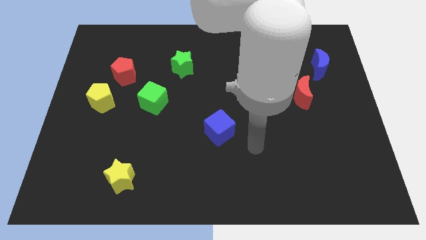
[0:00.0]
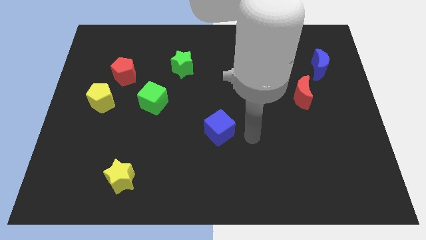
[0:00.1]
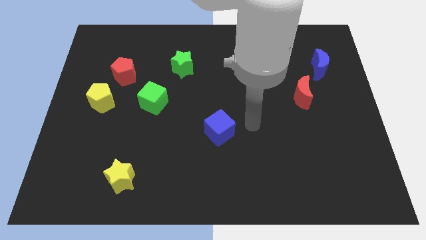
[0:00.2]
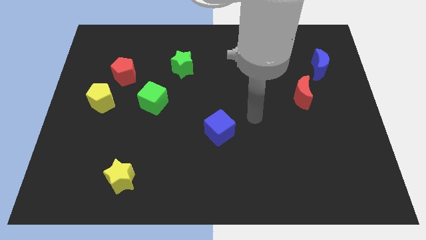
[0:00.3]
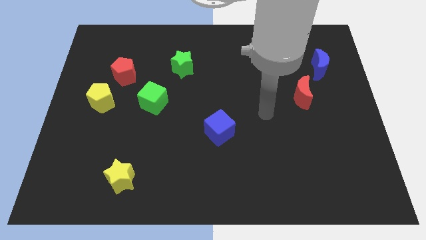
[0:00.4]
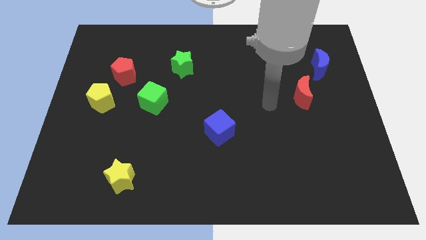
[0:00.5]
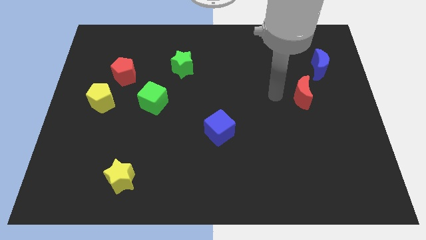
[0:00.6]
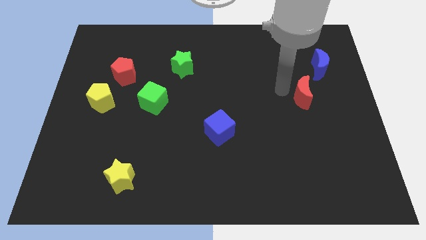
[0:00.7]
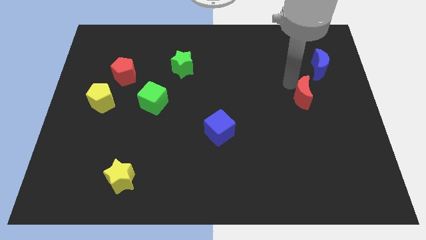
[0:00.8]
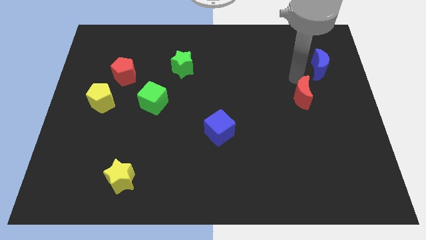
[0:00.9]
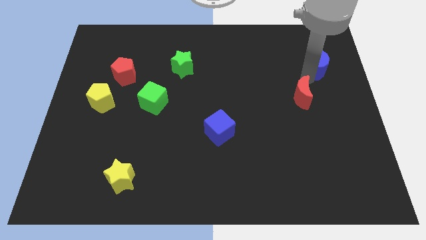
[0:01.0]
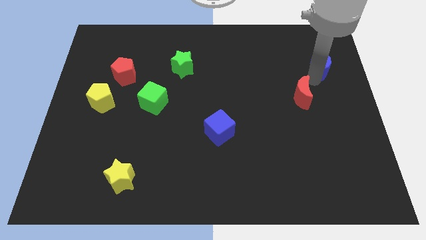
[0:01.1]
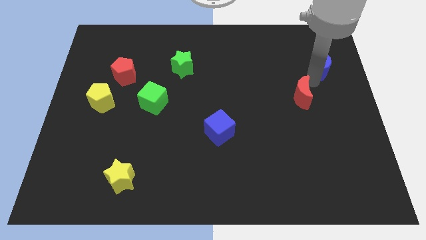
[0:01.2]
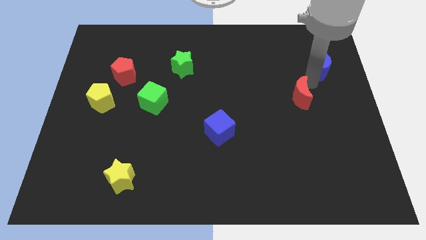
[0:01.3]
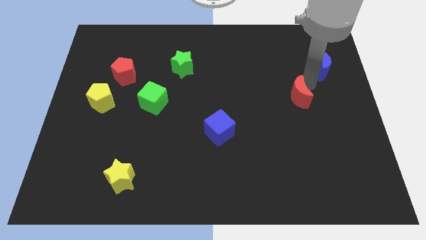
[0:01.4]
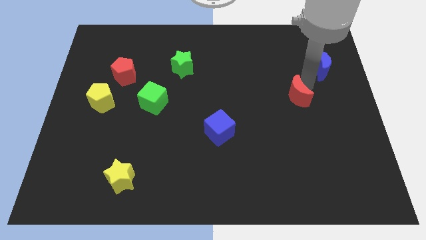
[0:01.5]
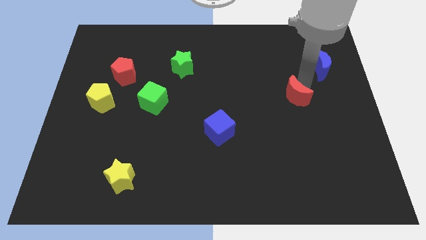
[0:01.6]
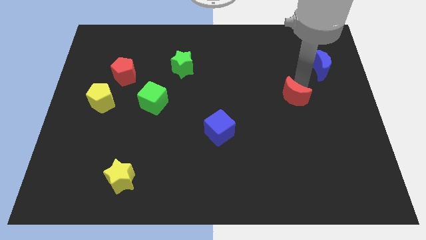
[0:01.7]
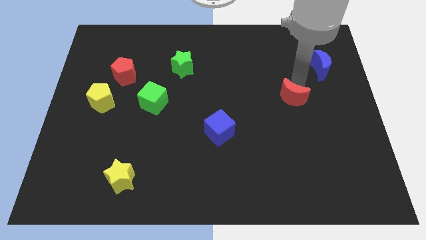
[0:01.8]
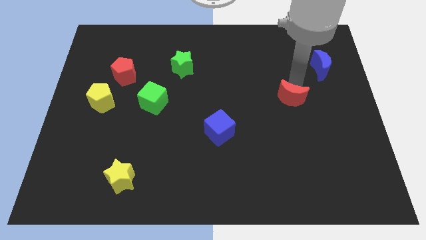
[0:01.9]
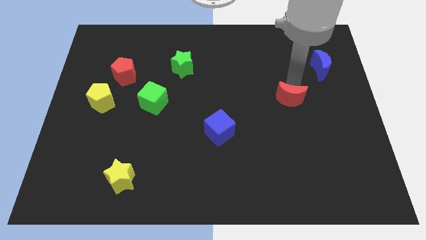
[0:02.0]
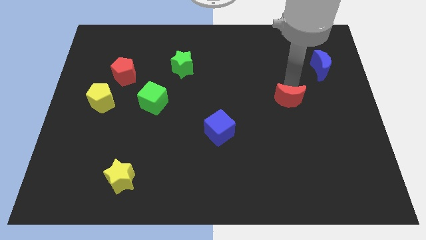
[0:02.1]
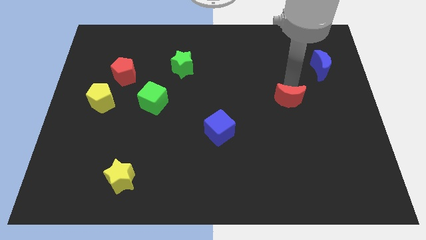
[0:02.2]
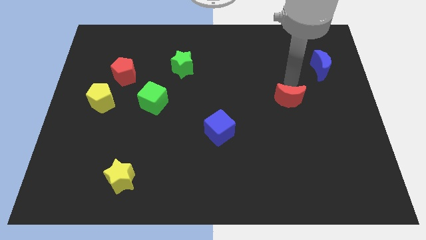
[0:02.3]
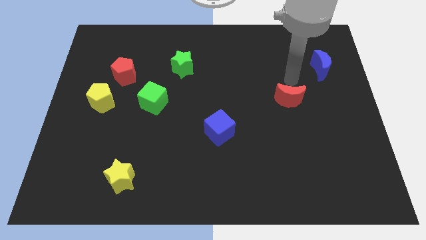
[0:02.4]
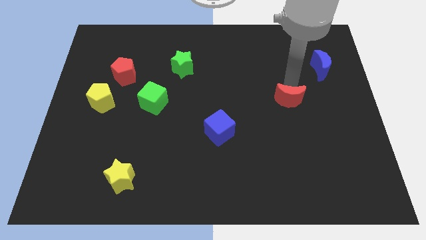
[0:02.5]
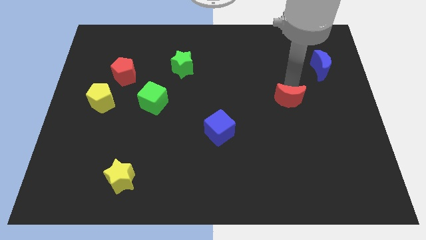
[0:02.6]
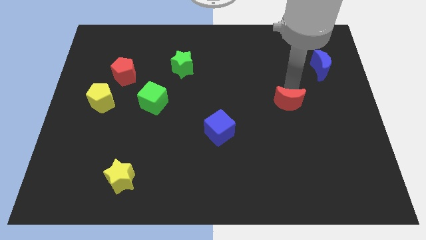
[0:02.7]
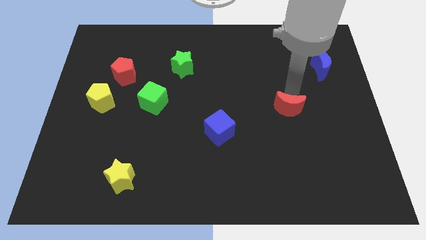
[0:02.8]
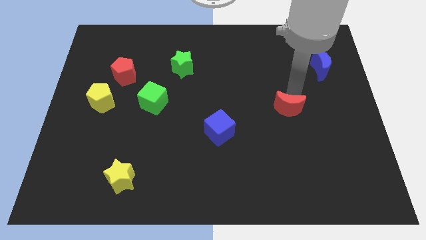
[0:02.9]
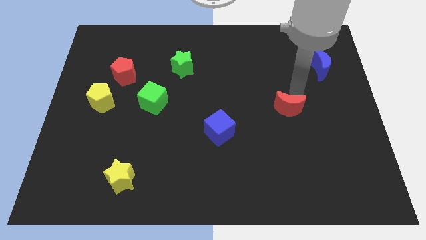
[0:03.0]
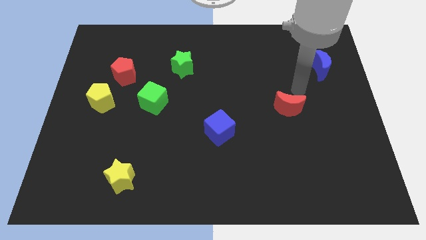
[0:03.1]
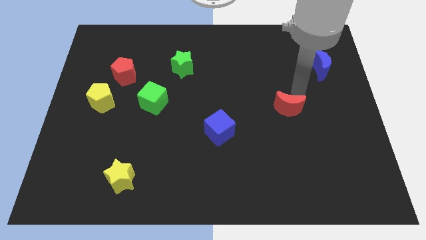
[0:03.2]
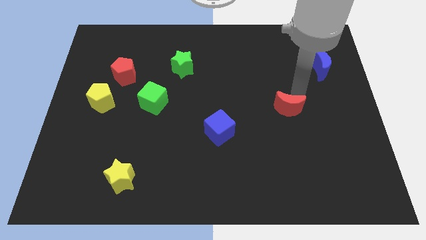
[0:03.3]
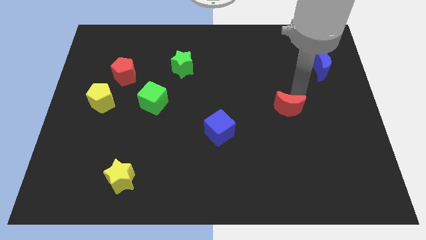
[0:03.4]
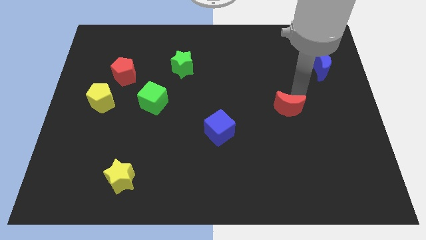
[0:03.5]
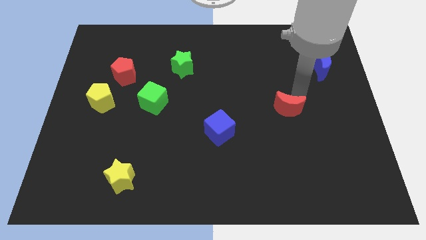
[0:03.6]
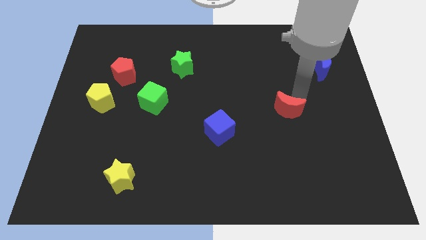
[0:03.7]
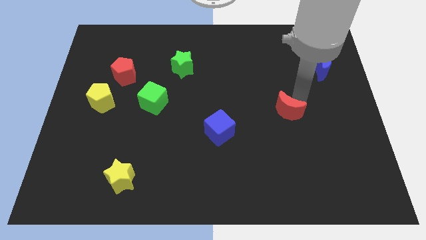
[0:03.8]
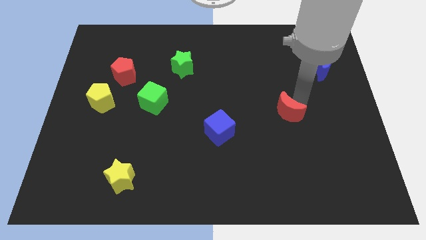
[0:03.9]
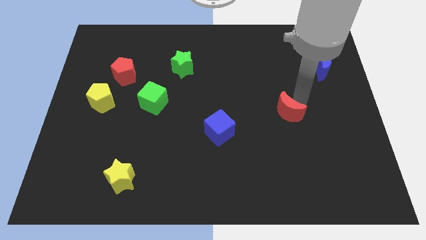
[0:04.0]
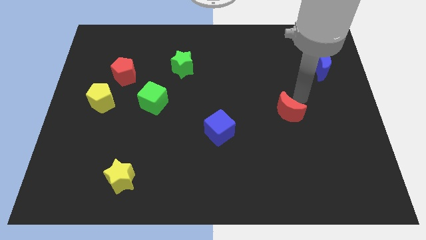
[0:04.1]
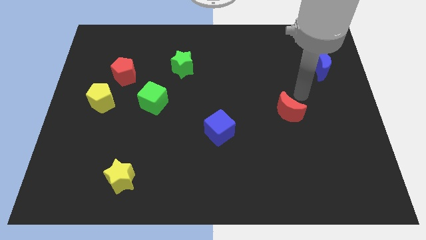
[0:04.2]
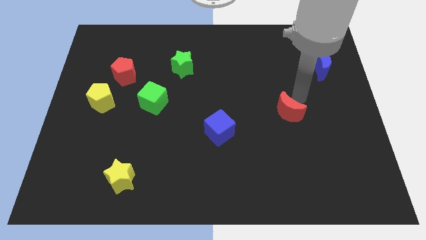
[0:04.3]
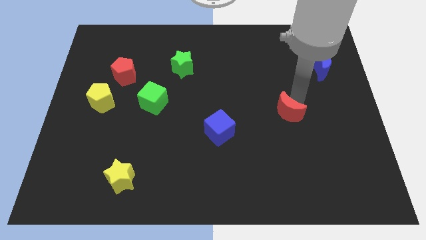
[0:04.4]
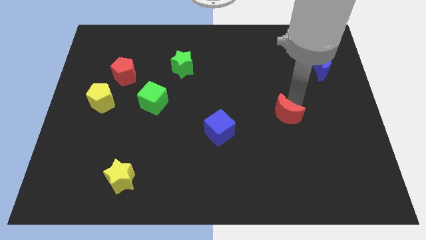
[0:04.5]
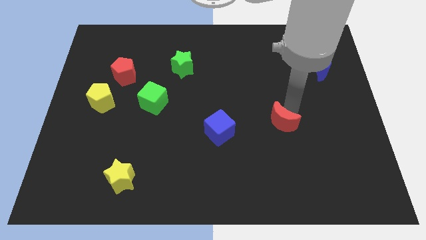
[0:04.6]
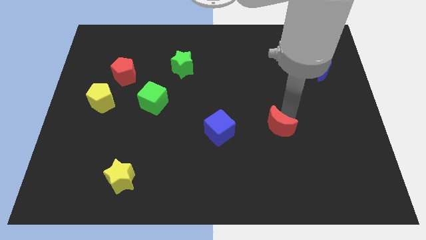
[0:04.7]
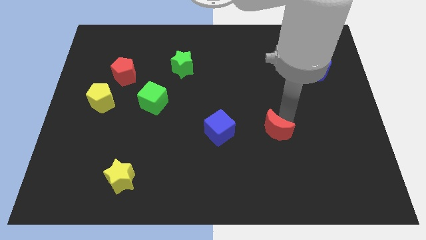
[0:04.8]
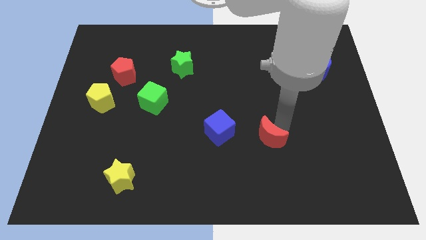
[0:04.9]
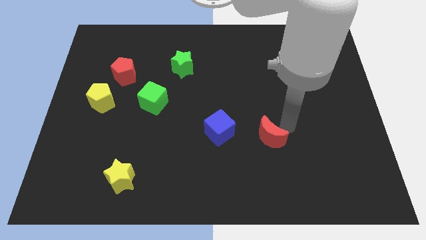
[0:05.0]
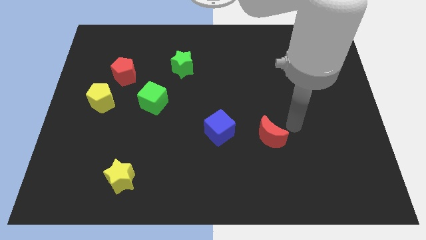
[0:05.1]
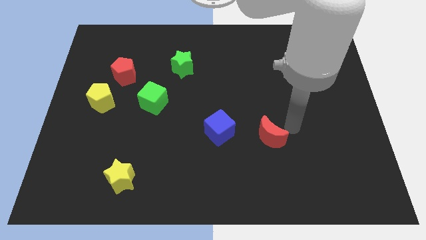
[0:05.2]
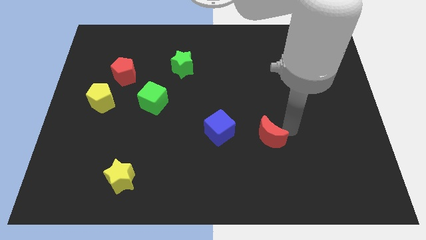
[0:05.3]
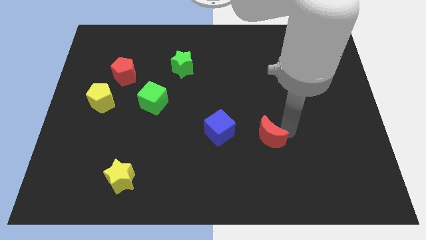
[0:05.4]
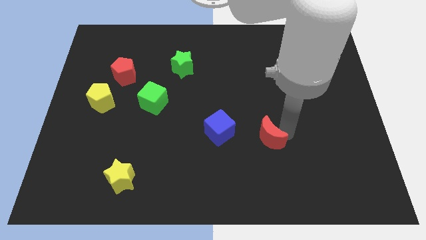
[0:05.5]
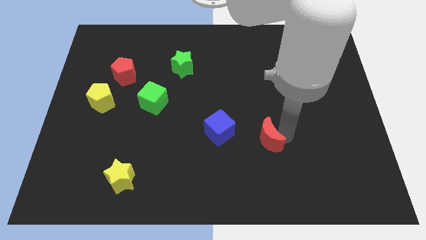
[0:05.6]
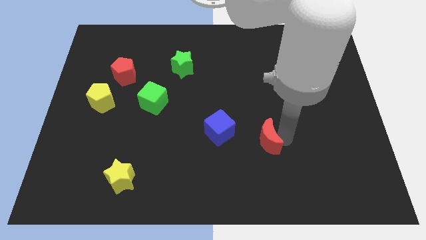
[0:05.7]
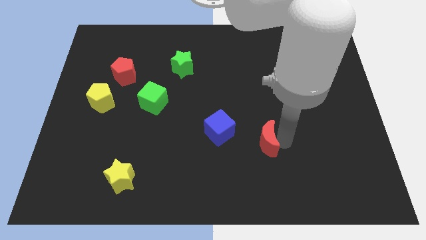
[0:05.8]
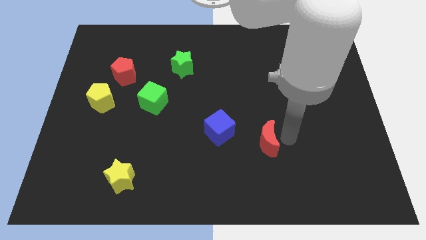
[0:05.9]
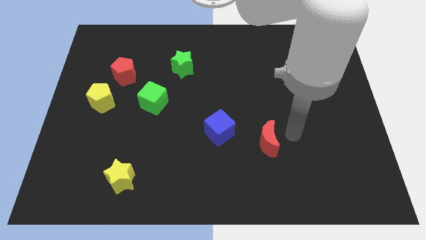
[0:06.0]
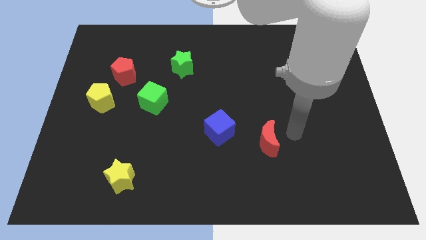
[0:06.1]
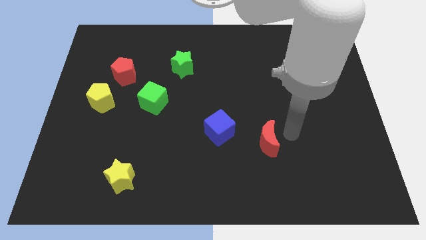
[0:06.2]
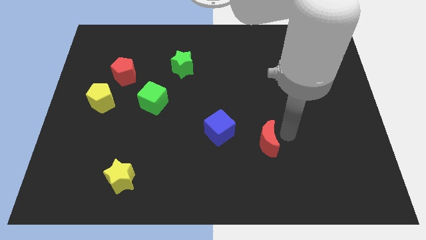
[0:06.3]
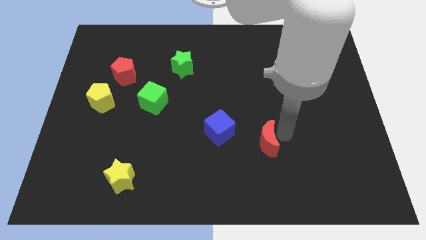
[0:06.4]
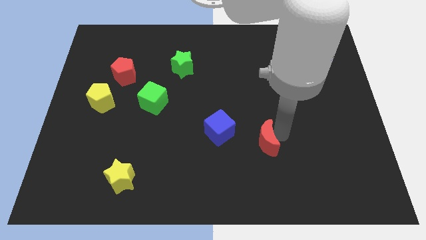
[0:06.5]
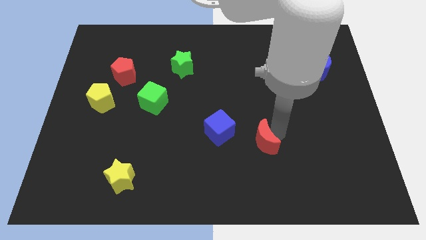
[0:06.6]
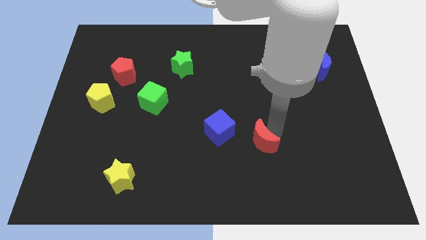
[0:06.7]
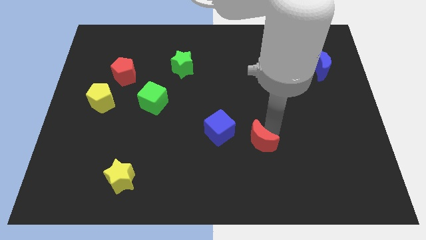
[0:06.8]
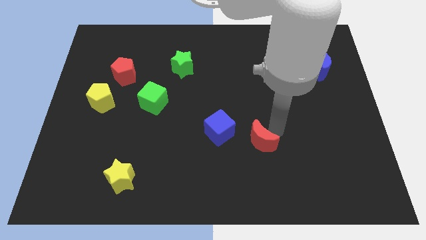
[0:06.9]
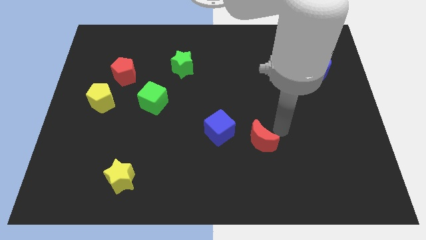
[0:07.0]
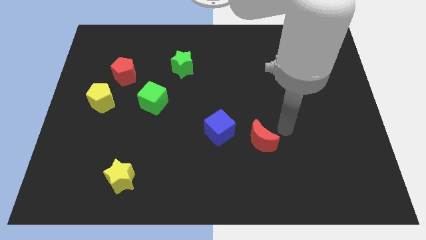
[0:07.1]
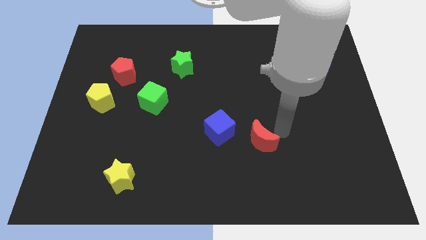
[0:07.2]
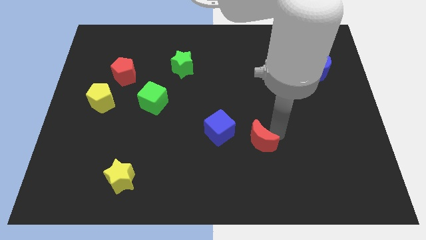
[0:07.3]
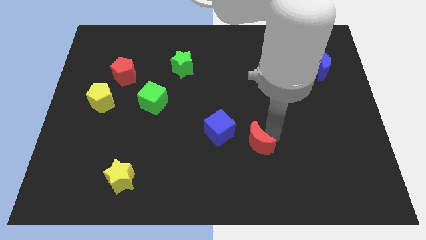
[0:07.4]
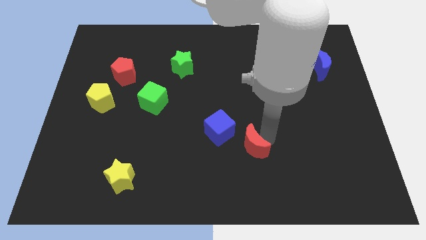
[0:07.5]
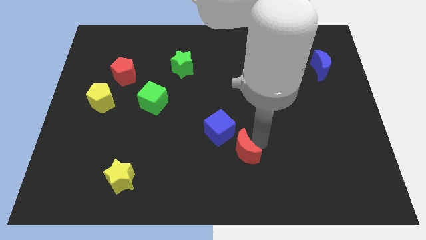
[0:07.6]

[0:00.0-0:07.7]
slide the red moon diagonally down and left

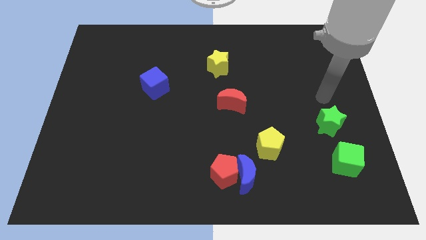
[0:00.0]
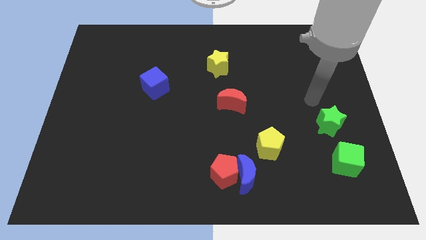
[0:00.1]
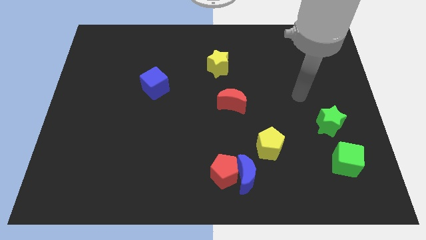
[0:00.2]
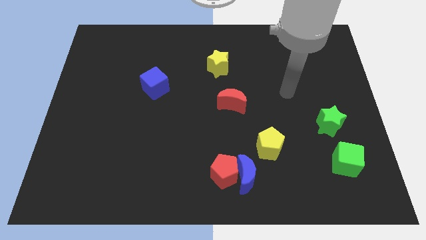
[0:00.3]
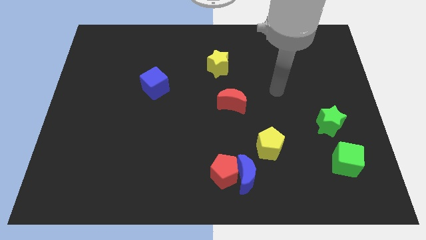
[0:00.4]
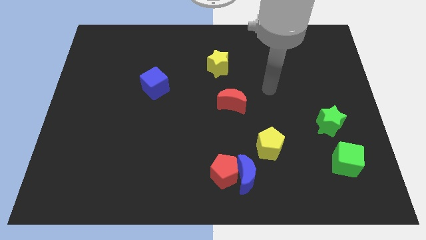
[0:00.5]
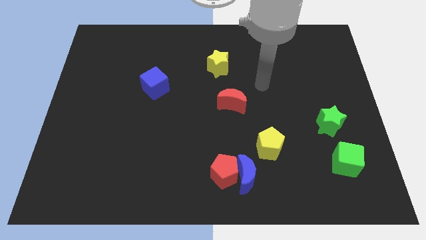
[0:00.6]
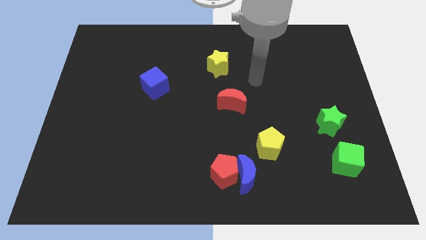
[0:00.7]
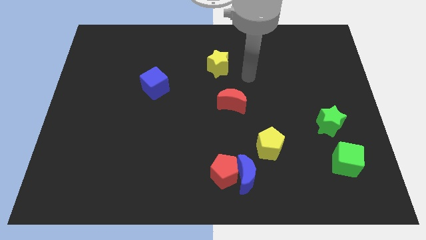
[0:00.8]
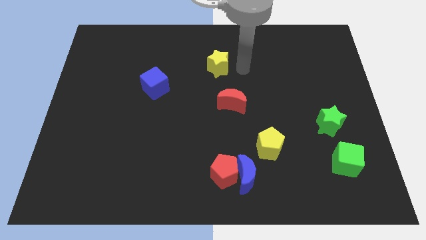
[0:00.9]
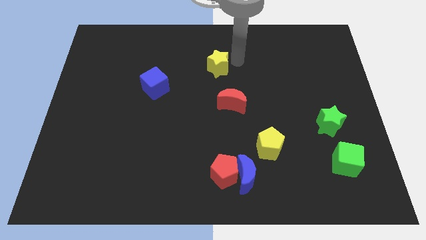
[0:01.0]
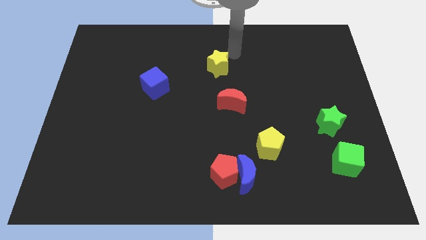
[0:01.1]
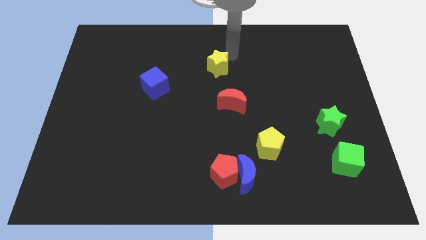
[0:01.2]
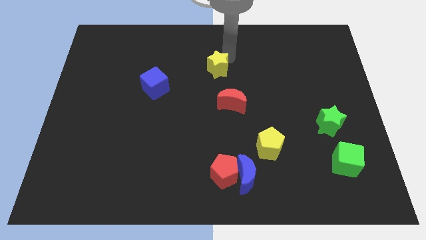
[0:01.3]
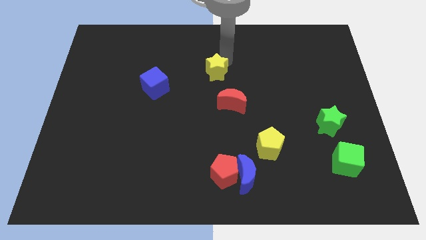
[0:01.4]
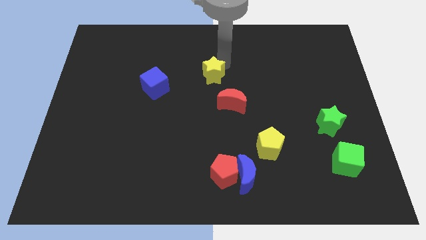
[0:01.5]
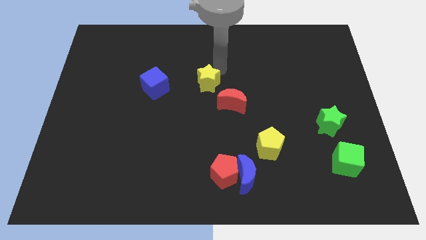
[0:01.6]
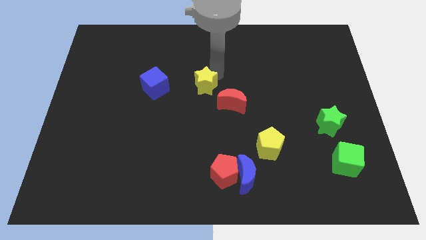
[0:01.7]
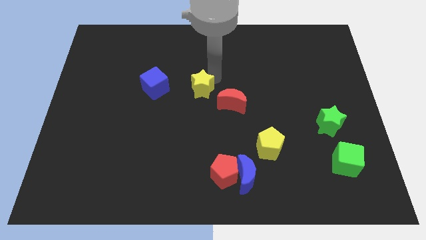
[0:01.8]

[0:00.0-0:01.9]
move the yellow star downwards and then left slightly
